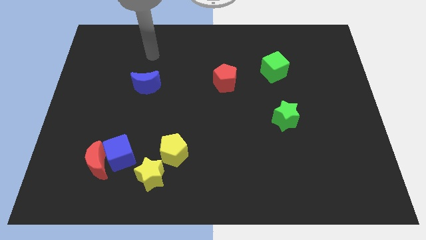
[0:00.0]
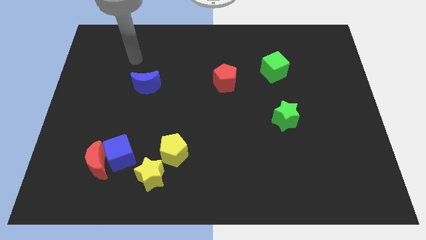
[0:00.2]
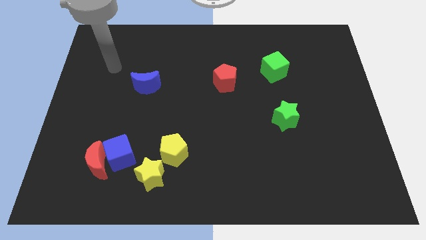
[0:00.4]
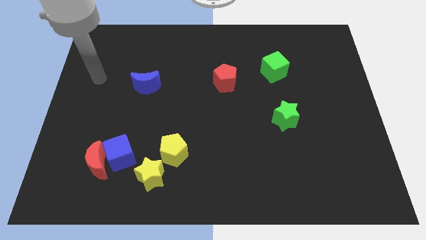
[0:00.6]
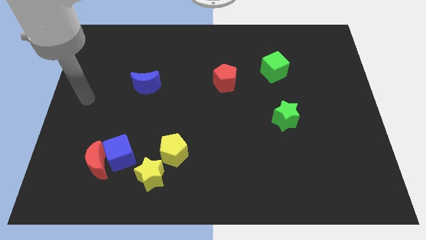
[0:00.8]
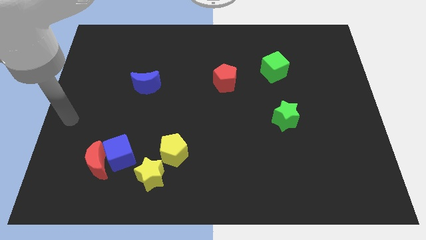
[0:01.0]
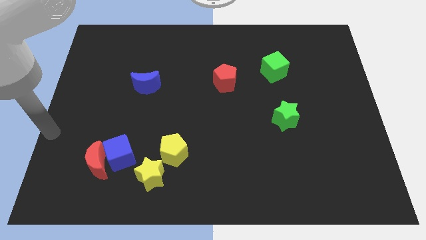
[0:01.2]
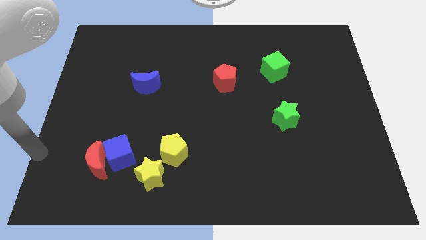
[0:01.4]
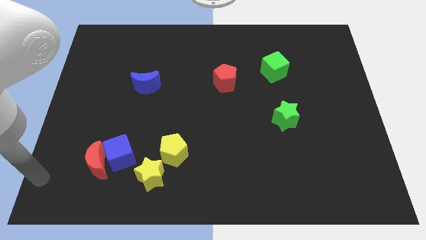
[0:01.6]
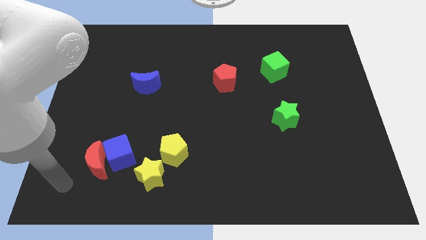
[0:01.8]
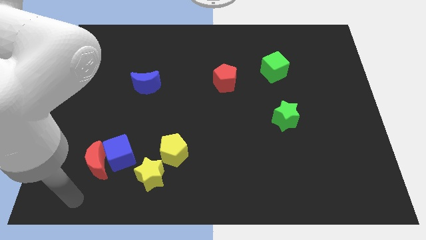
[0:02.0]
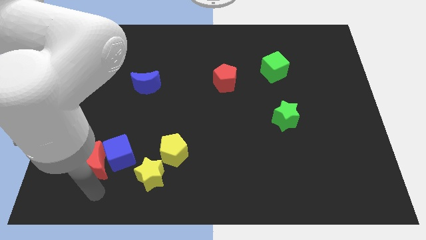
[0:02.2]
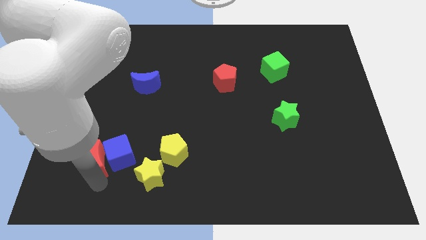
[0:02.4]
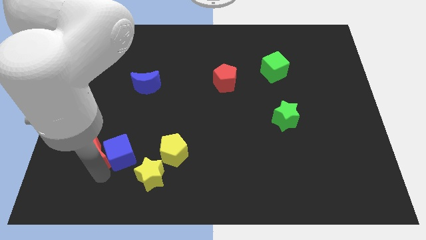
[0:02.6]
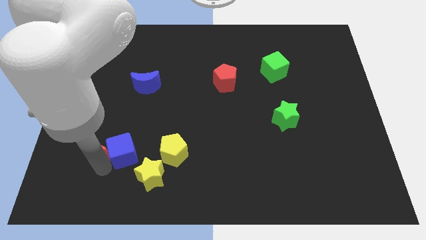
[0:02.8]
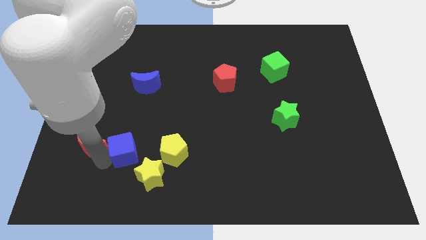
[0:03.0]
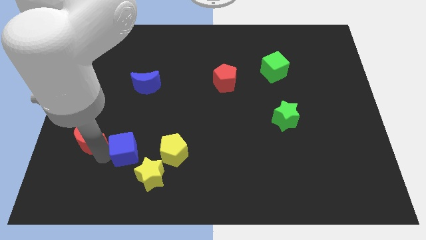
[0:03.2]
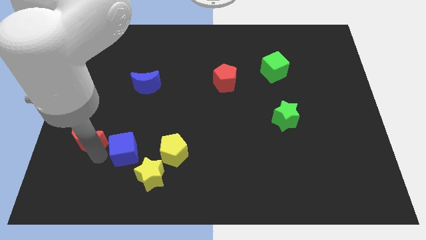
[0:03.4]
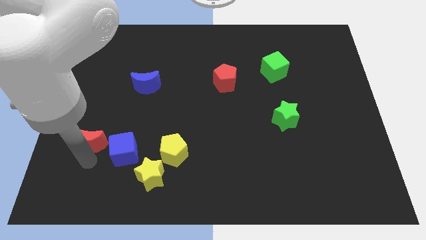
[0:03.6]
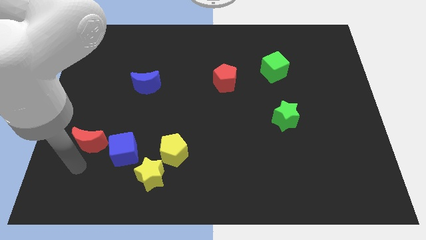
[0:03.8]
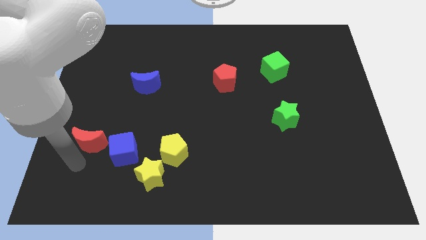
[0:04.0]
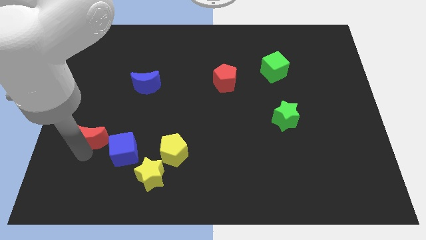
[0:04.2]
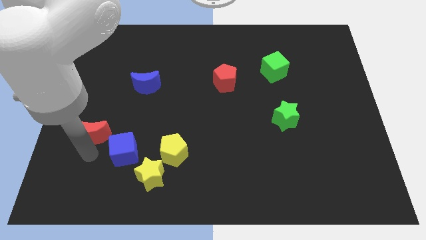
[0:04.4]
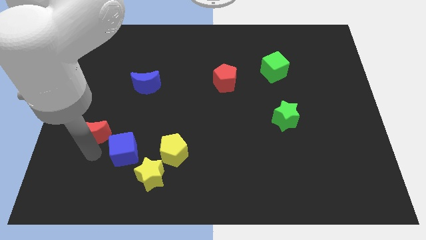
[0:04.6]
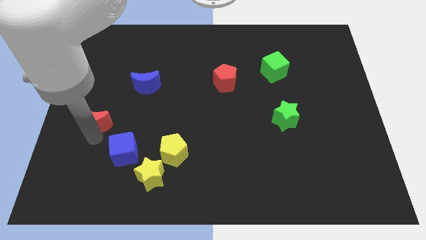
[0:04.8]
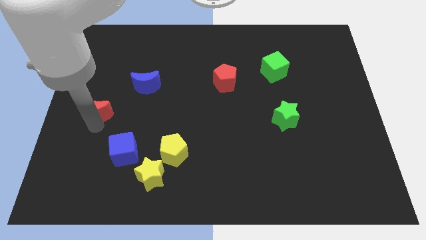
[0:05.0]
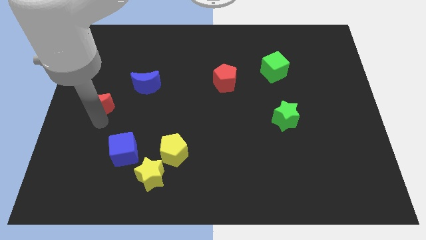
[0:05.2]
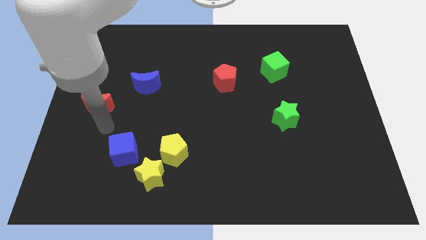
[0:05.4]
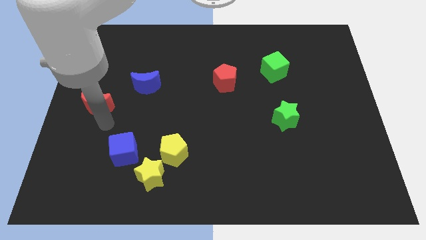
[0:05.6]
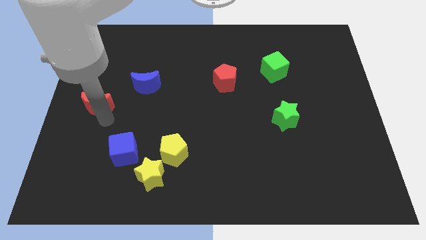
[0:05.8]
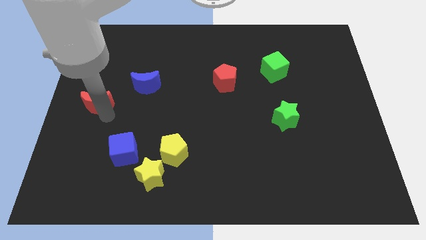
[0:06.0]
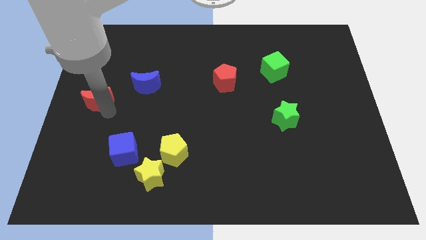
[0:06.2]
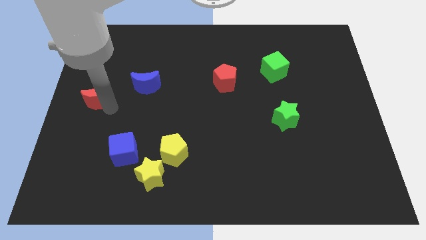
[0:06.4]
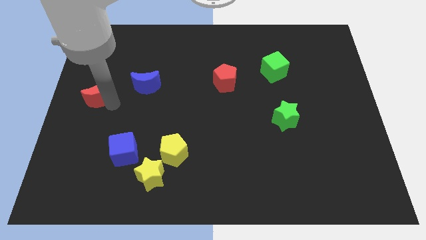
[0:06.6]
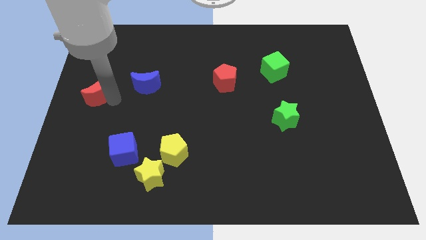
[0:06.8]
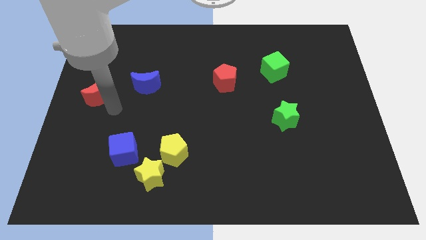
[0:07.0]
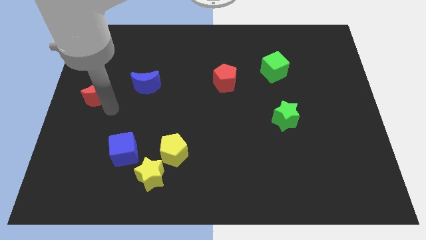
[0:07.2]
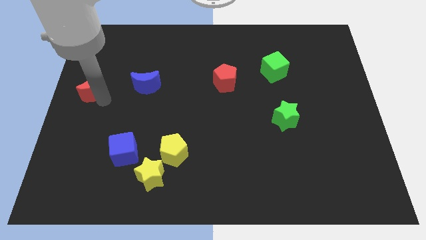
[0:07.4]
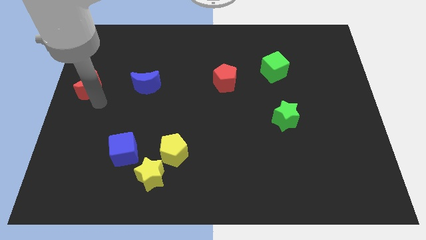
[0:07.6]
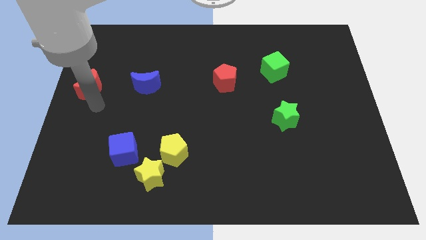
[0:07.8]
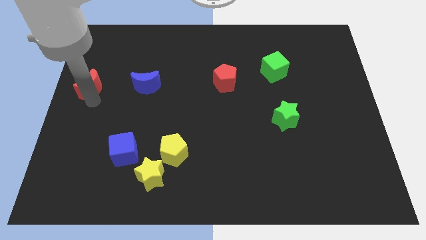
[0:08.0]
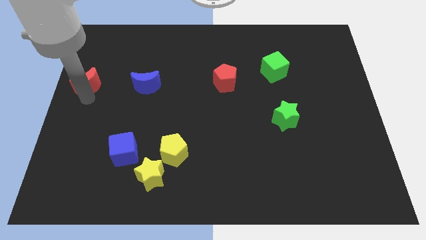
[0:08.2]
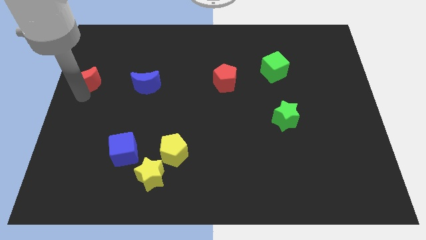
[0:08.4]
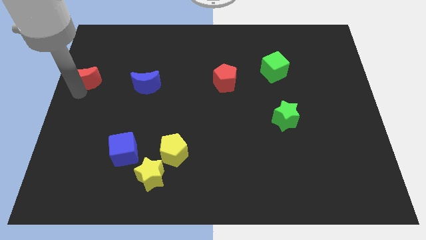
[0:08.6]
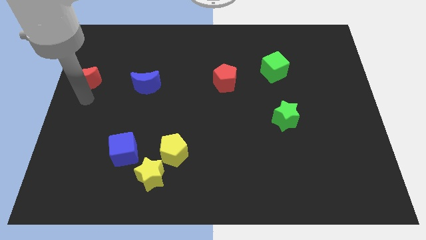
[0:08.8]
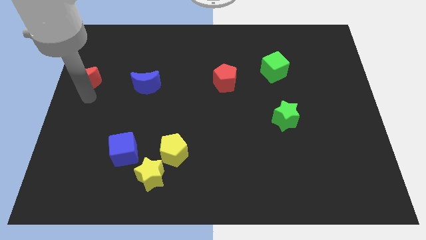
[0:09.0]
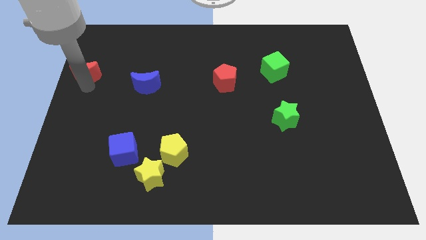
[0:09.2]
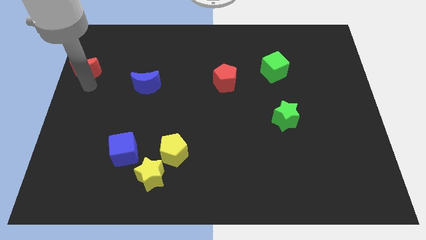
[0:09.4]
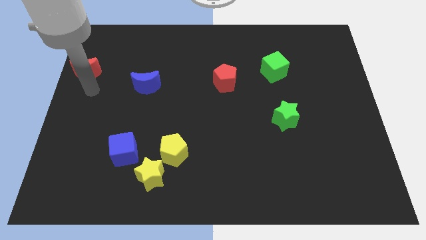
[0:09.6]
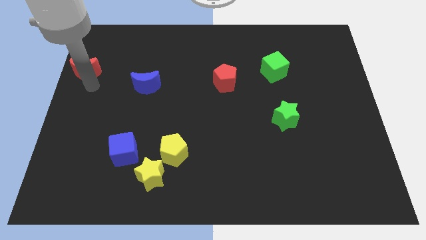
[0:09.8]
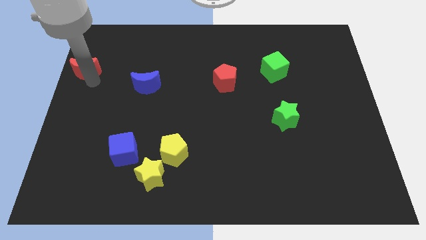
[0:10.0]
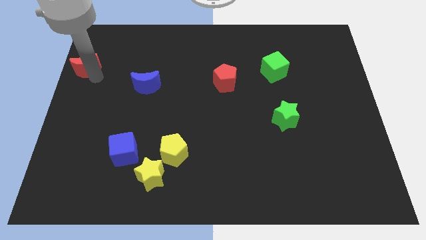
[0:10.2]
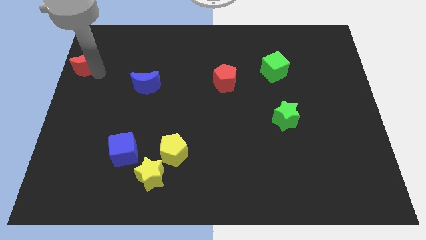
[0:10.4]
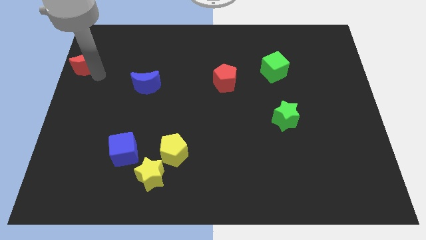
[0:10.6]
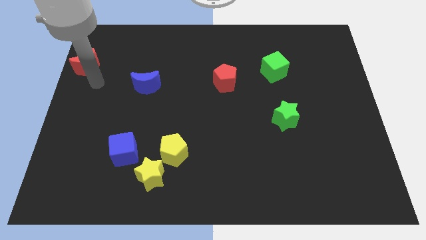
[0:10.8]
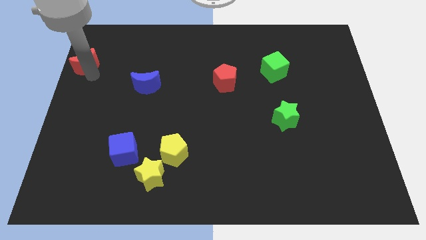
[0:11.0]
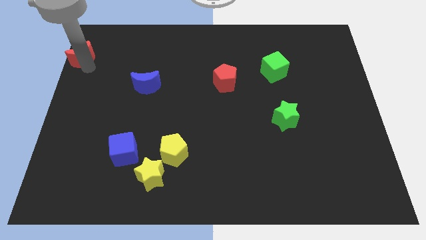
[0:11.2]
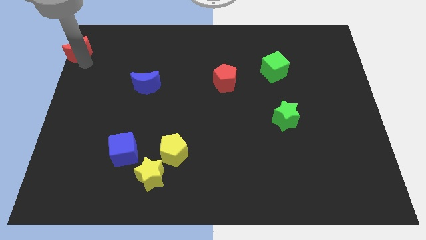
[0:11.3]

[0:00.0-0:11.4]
put the red moon to the top left

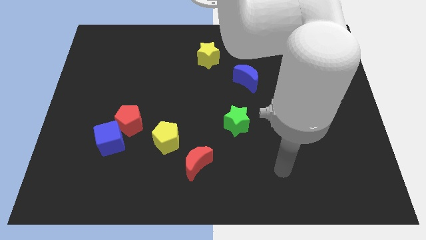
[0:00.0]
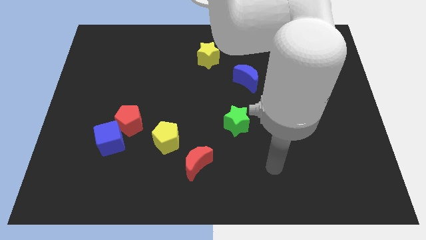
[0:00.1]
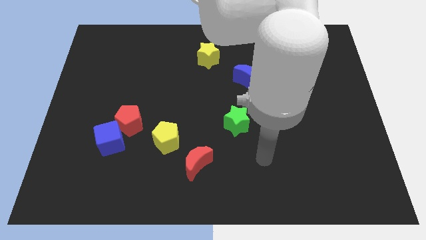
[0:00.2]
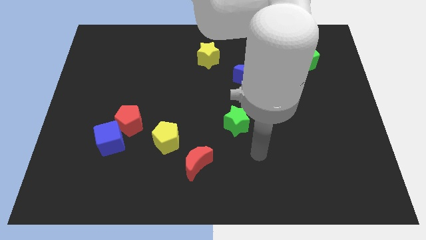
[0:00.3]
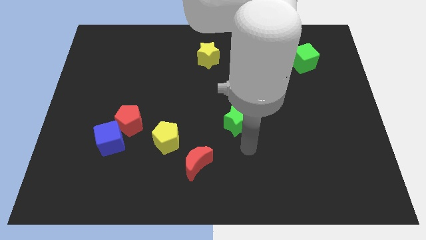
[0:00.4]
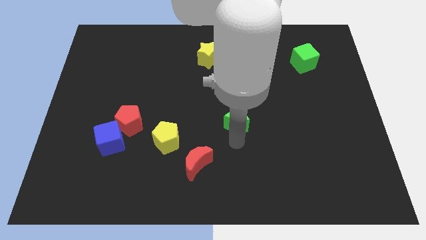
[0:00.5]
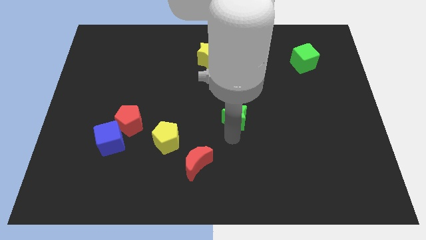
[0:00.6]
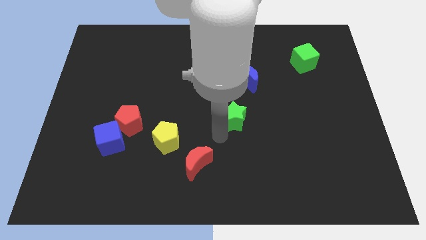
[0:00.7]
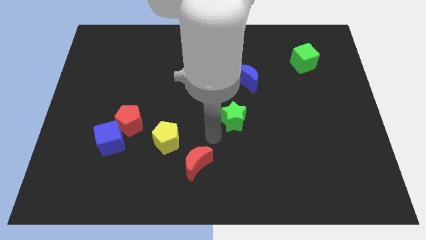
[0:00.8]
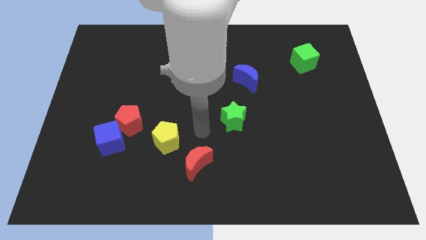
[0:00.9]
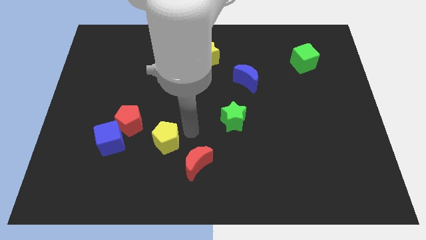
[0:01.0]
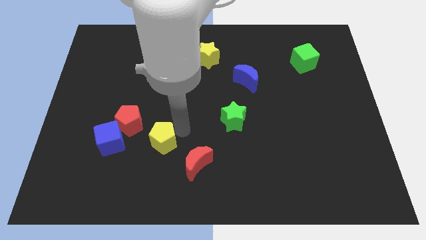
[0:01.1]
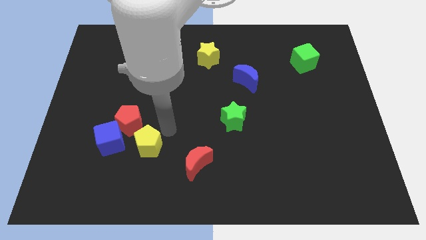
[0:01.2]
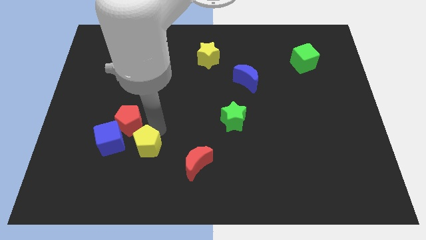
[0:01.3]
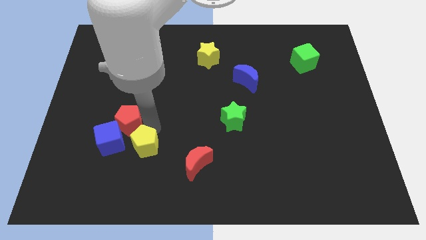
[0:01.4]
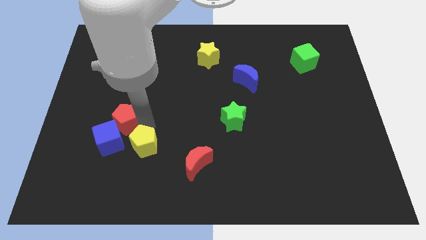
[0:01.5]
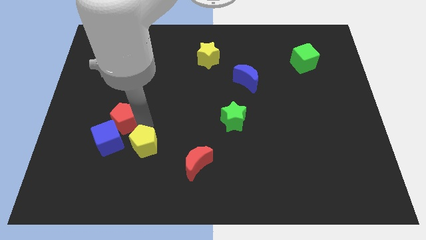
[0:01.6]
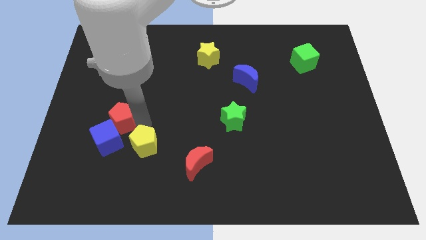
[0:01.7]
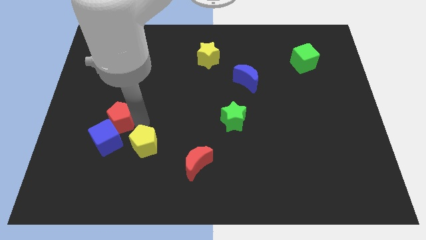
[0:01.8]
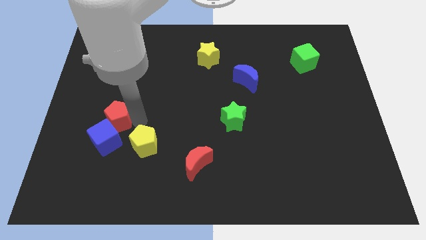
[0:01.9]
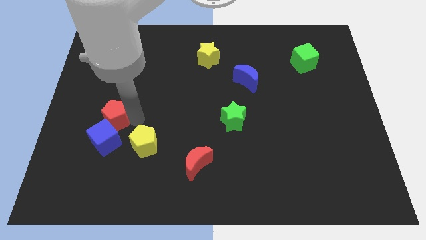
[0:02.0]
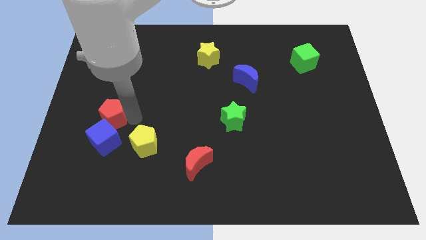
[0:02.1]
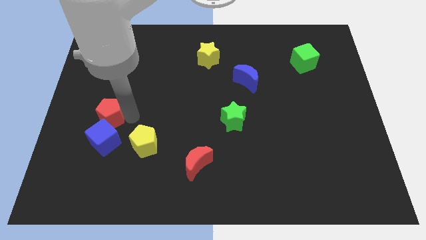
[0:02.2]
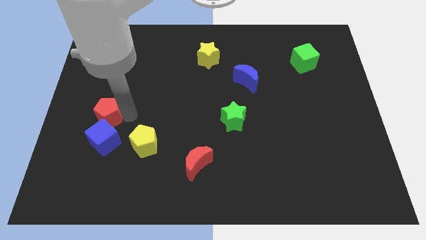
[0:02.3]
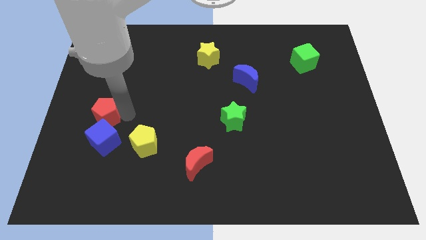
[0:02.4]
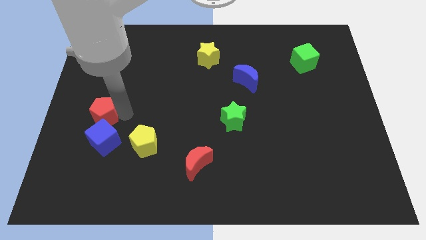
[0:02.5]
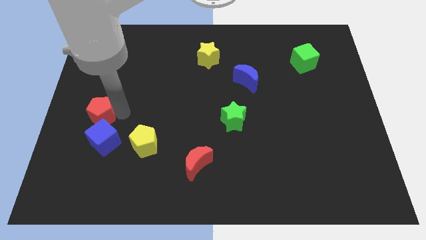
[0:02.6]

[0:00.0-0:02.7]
move the red pentagon to the left side of the board
